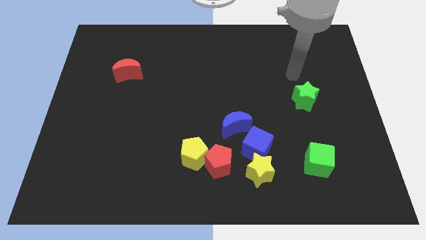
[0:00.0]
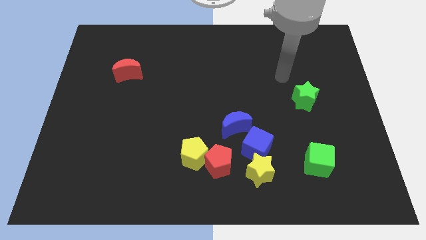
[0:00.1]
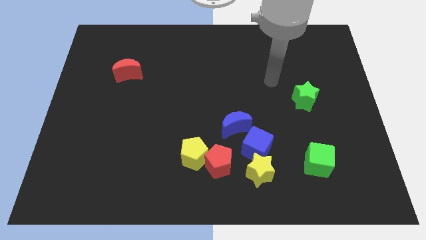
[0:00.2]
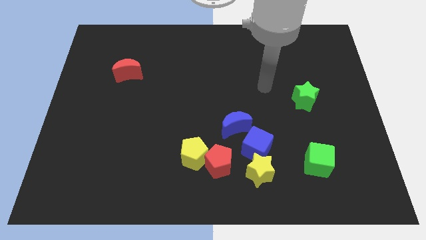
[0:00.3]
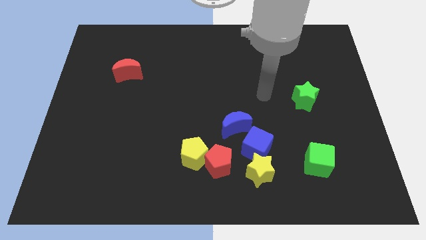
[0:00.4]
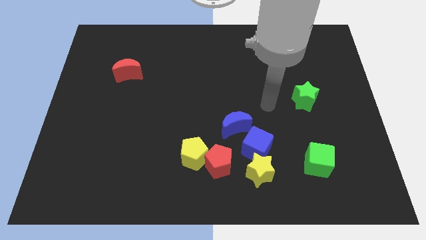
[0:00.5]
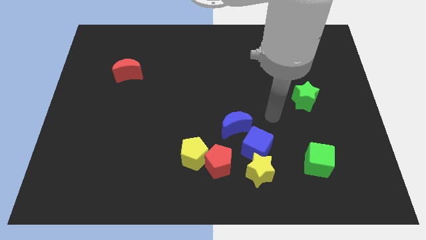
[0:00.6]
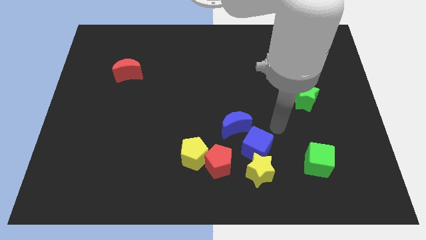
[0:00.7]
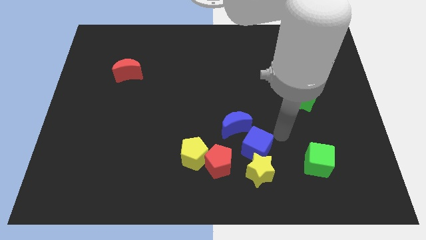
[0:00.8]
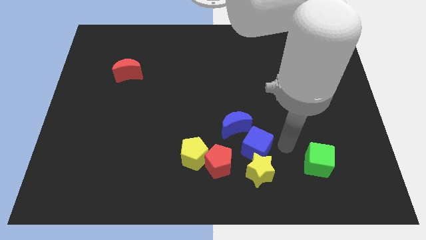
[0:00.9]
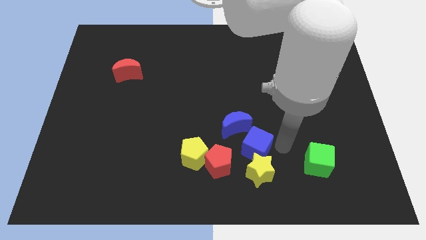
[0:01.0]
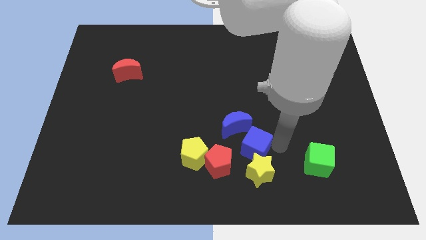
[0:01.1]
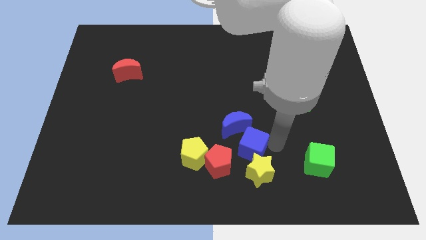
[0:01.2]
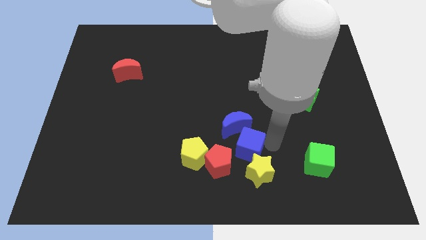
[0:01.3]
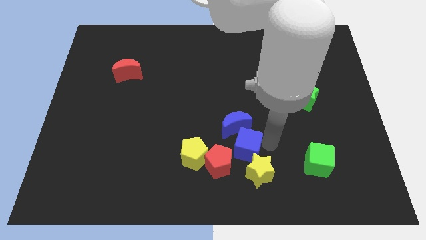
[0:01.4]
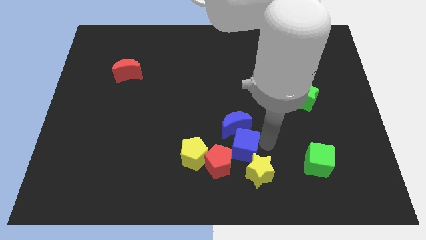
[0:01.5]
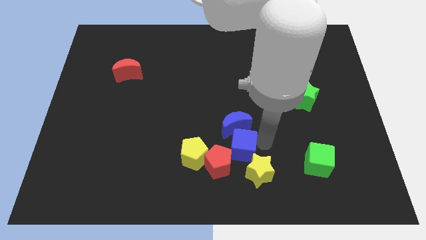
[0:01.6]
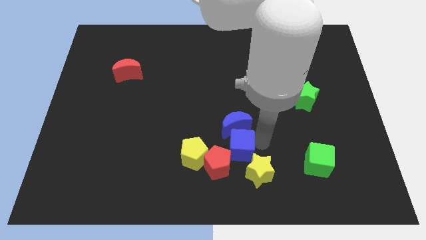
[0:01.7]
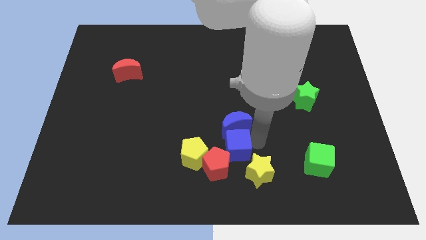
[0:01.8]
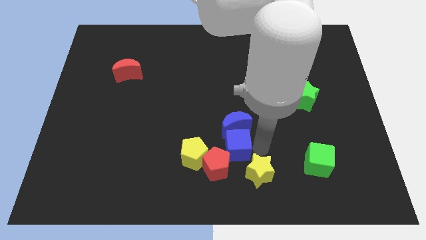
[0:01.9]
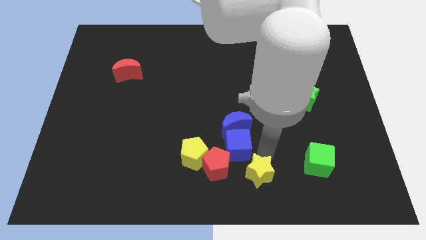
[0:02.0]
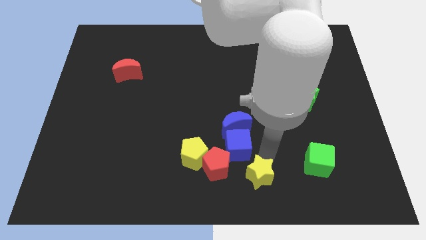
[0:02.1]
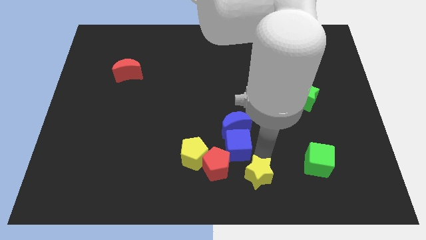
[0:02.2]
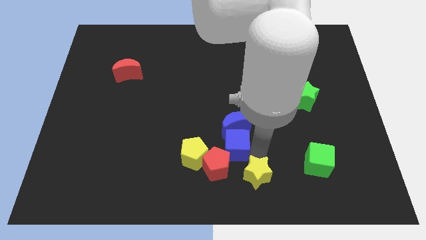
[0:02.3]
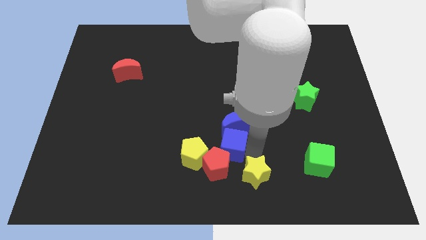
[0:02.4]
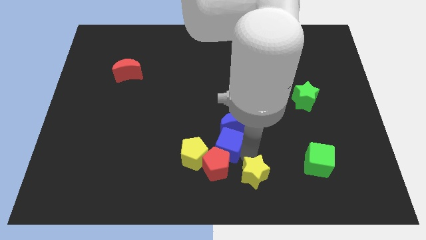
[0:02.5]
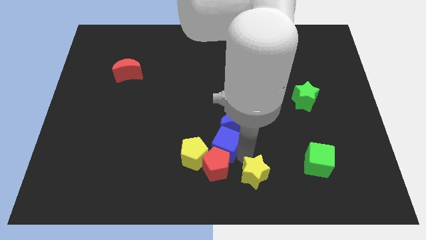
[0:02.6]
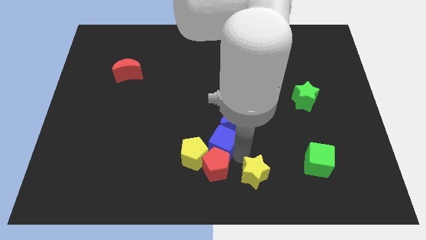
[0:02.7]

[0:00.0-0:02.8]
move the blue cube a little bit to the left

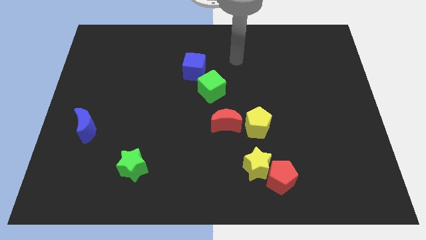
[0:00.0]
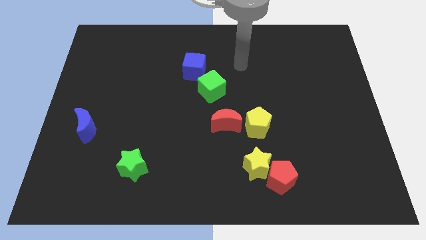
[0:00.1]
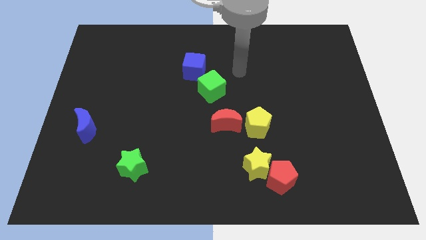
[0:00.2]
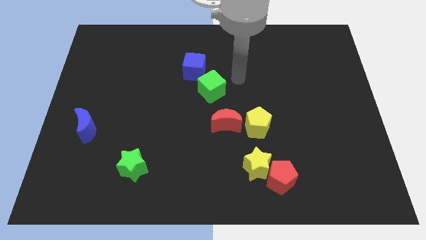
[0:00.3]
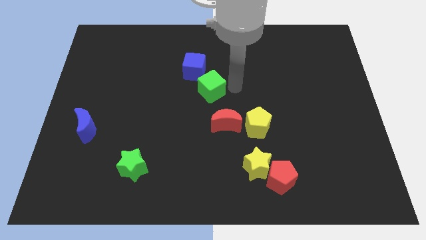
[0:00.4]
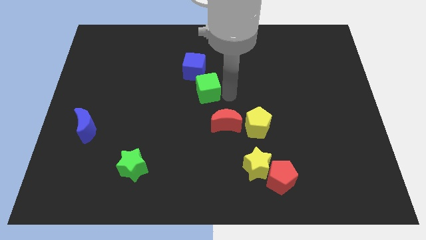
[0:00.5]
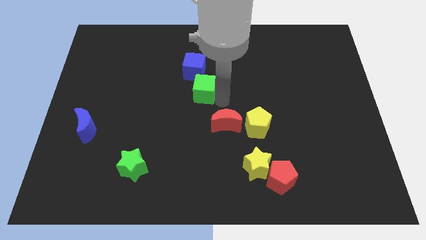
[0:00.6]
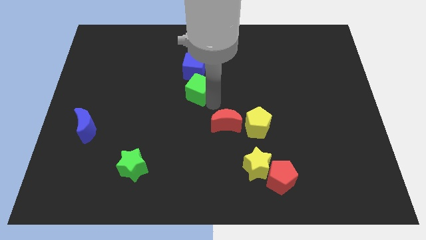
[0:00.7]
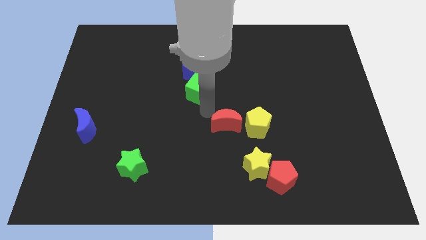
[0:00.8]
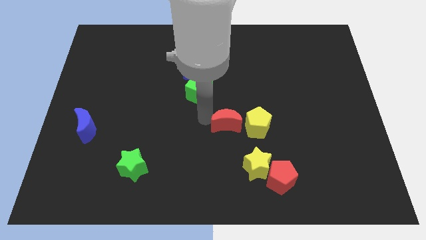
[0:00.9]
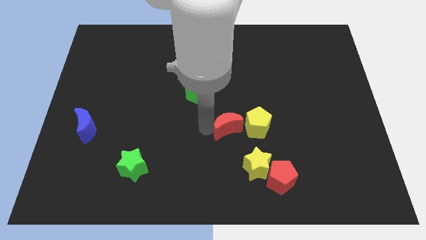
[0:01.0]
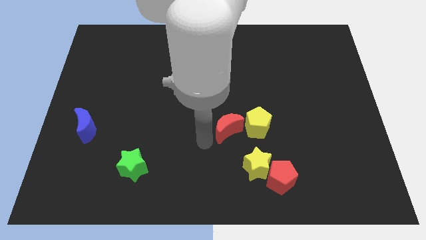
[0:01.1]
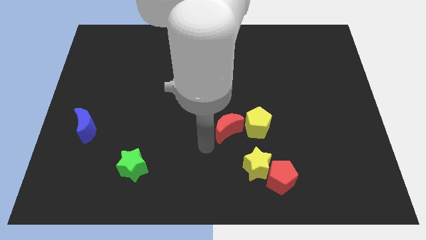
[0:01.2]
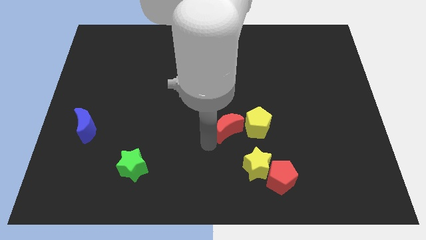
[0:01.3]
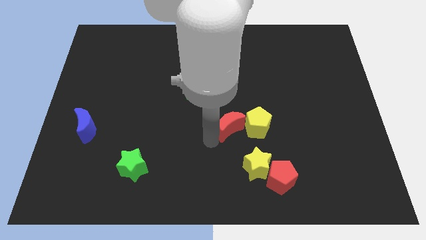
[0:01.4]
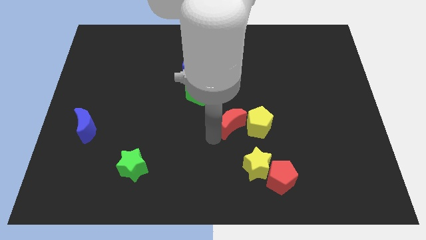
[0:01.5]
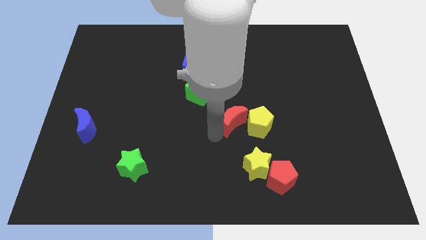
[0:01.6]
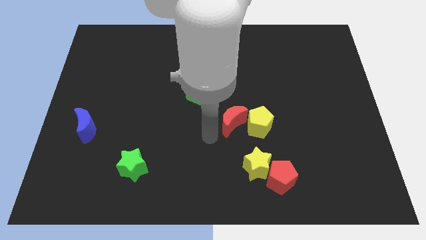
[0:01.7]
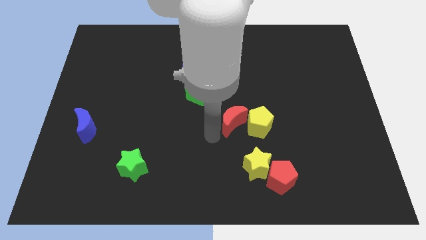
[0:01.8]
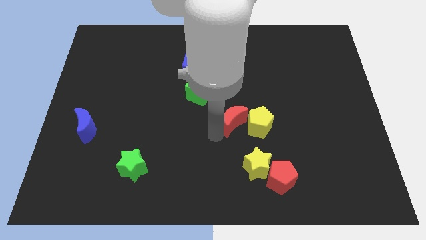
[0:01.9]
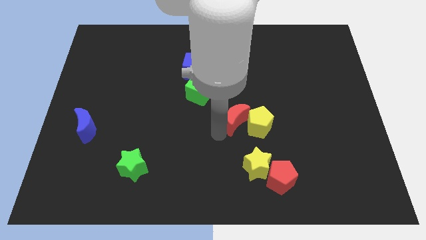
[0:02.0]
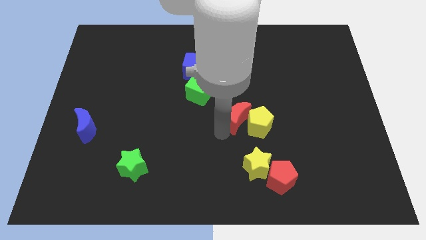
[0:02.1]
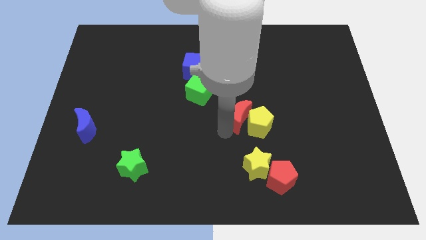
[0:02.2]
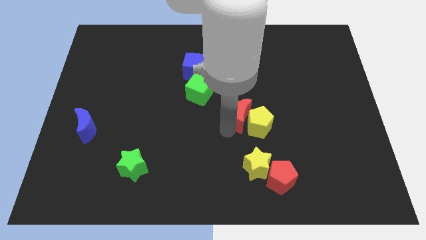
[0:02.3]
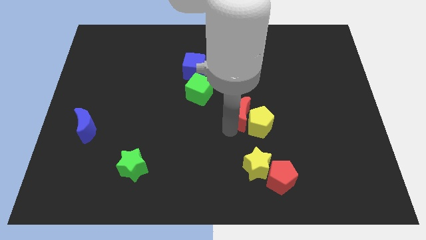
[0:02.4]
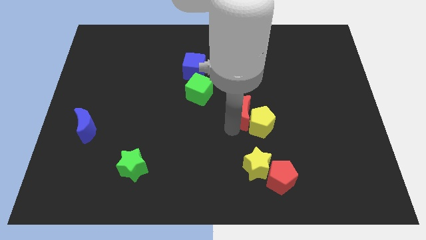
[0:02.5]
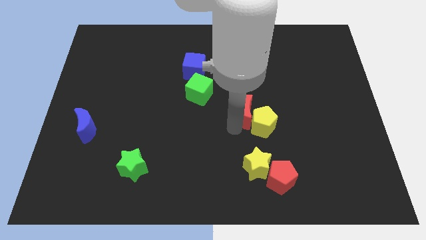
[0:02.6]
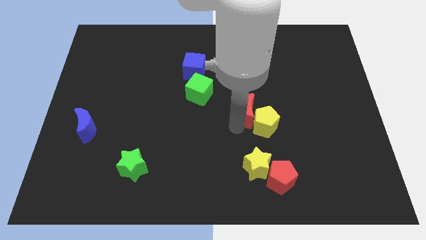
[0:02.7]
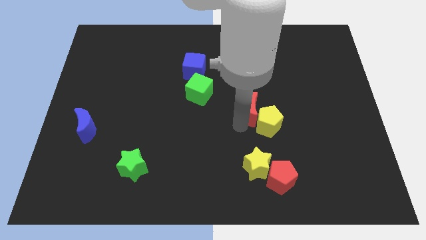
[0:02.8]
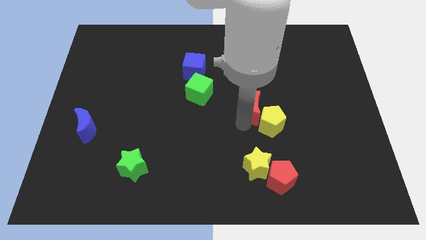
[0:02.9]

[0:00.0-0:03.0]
slide the red moon a little up and to the right

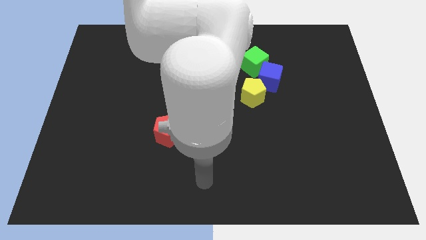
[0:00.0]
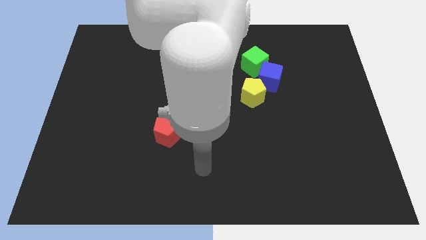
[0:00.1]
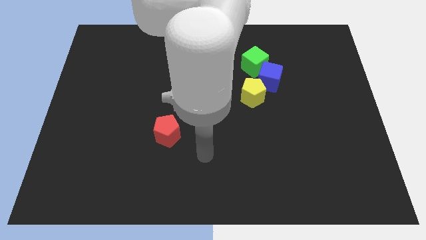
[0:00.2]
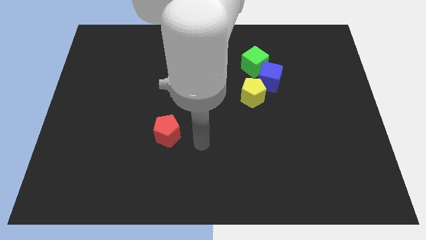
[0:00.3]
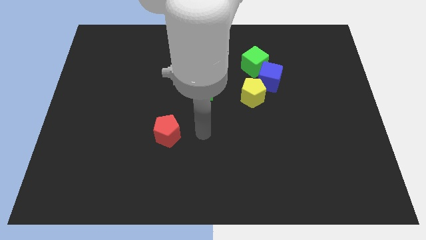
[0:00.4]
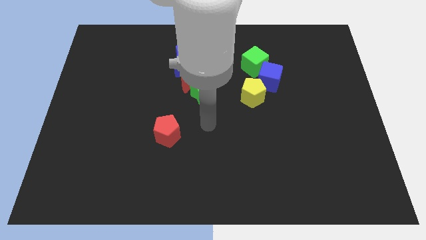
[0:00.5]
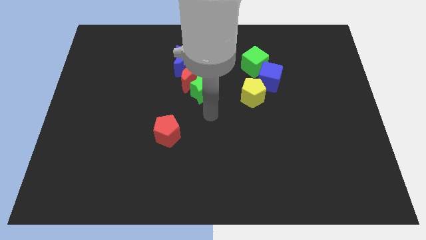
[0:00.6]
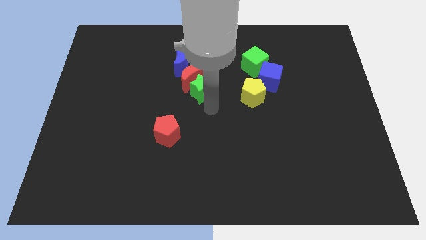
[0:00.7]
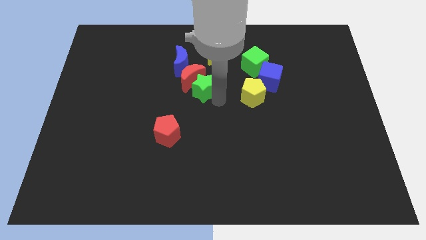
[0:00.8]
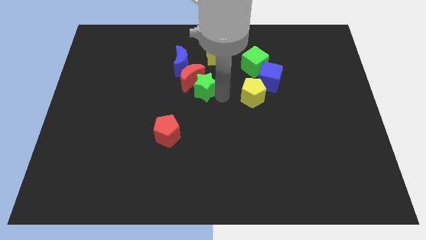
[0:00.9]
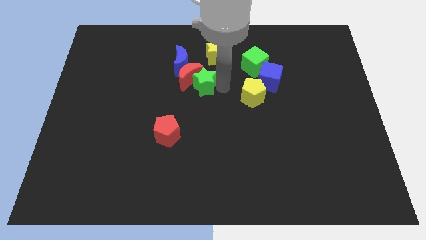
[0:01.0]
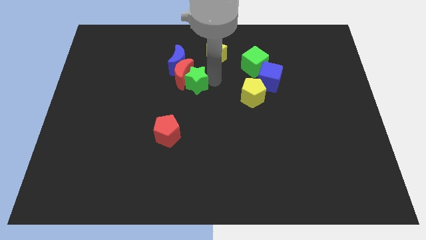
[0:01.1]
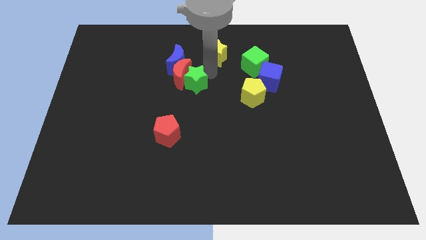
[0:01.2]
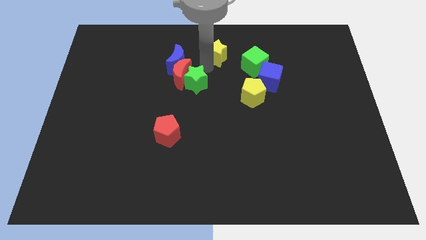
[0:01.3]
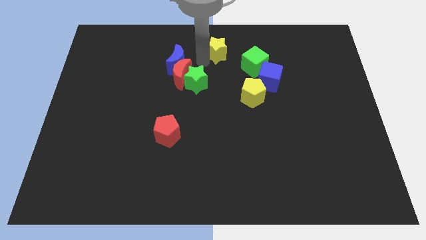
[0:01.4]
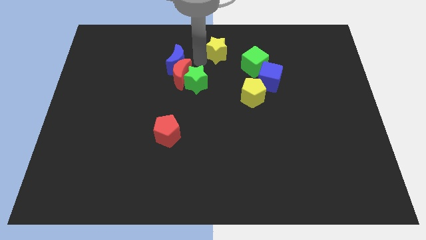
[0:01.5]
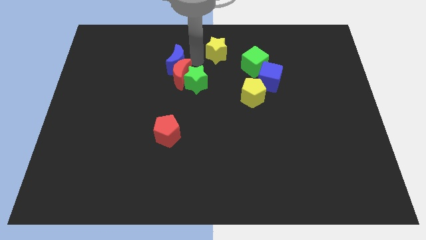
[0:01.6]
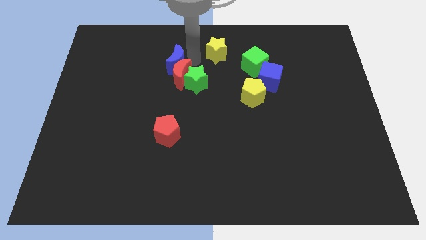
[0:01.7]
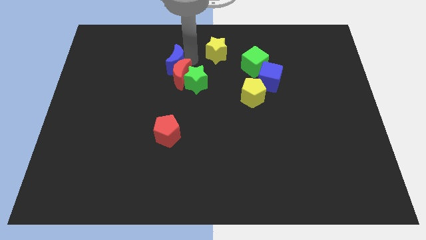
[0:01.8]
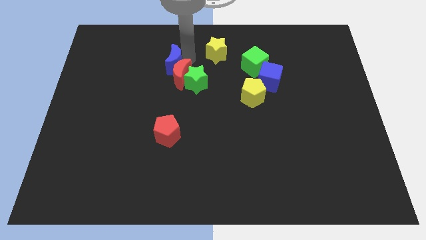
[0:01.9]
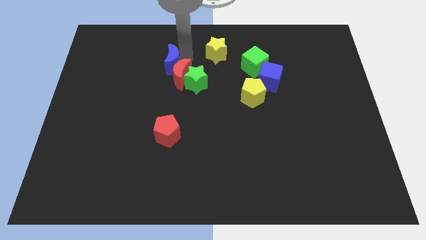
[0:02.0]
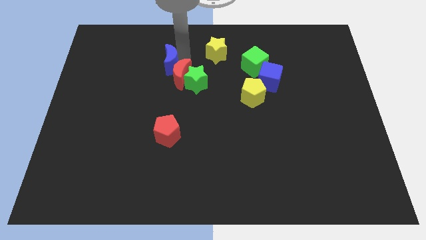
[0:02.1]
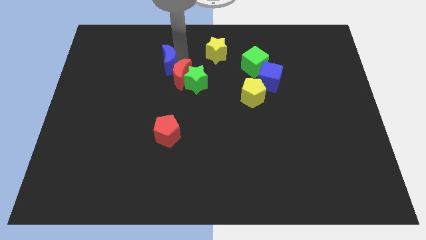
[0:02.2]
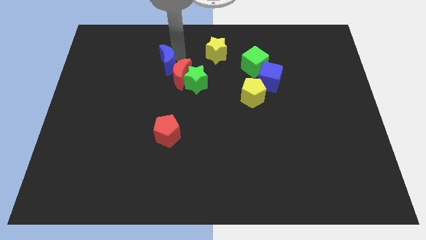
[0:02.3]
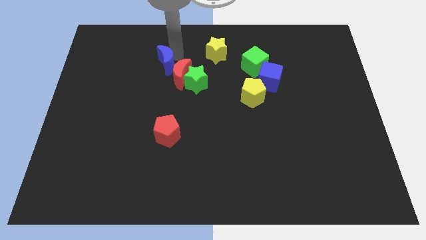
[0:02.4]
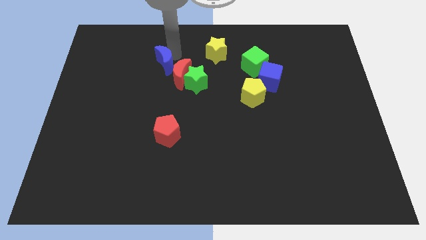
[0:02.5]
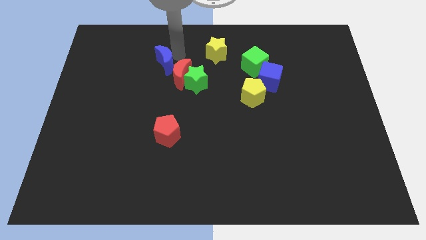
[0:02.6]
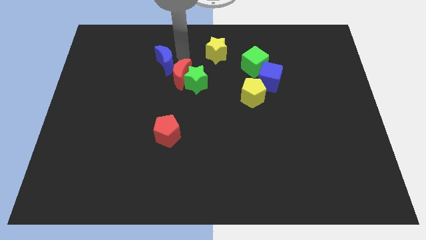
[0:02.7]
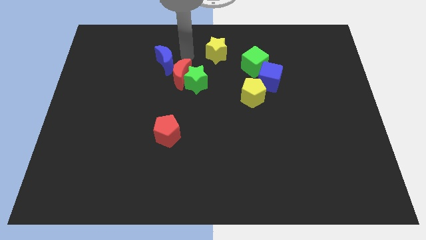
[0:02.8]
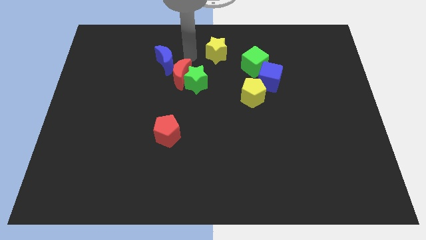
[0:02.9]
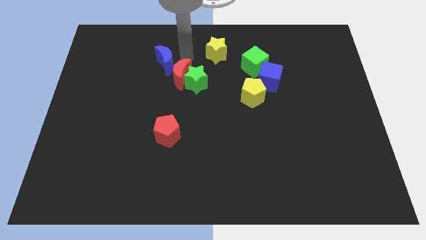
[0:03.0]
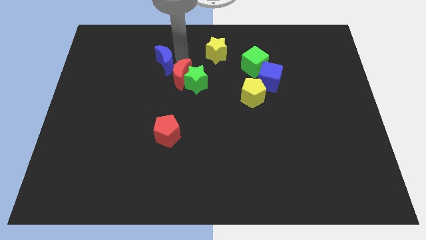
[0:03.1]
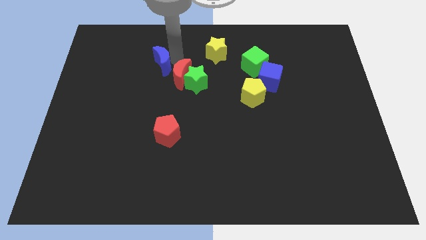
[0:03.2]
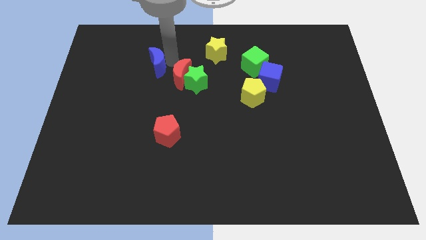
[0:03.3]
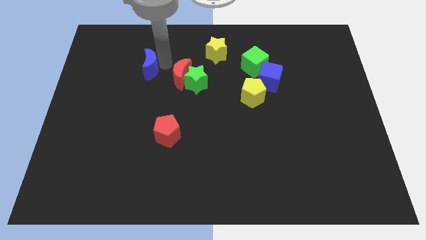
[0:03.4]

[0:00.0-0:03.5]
move the blue moon left a little
